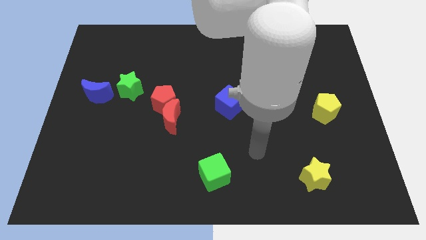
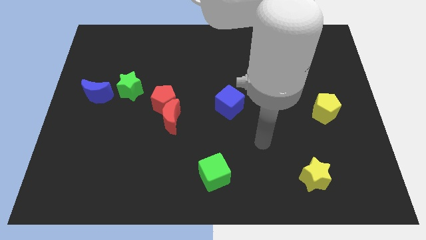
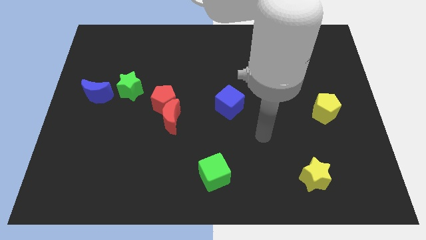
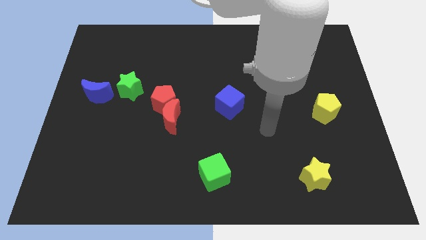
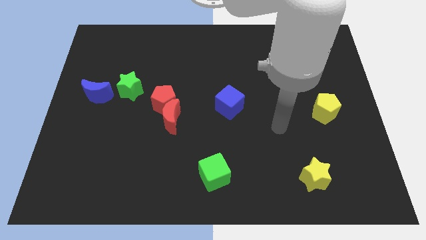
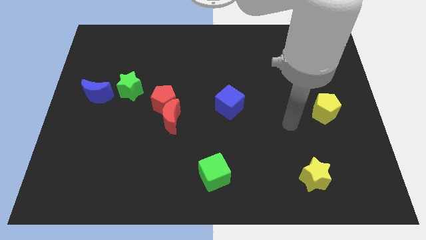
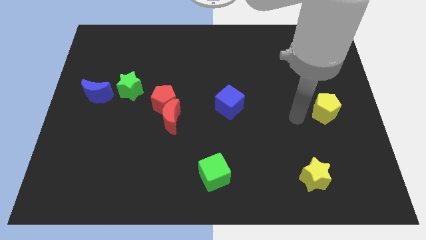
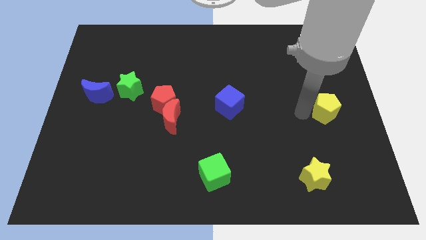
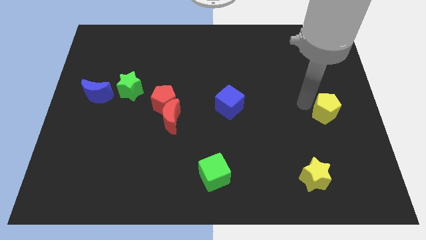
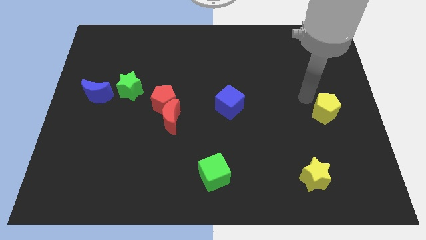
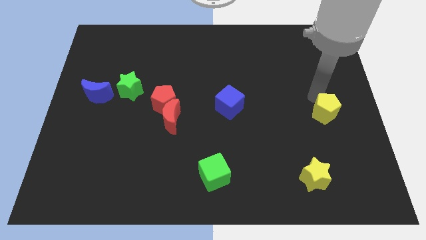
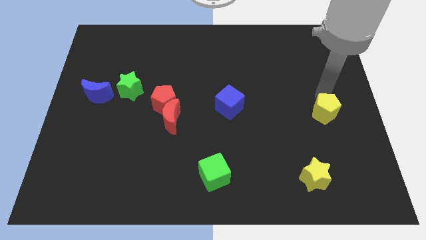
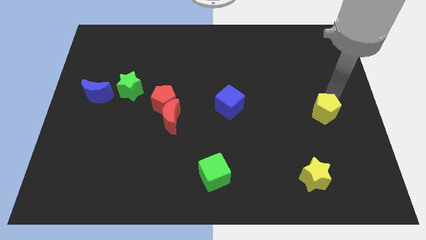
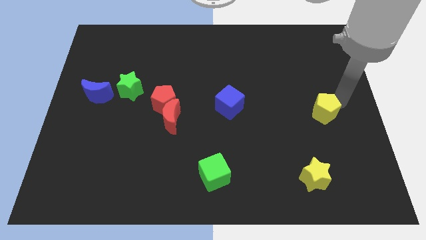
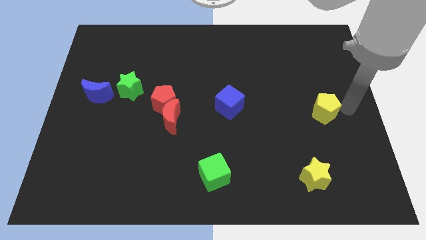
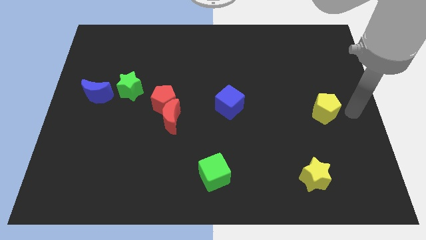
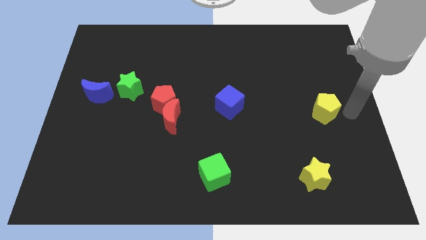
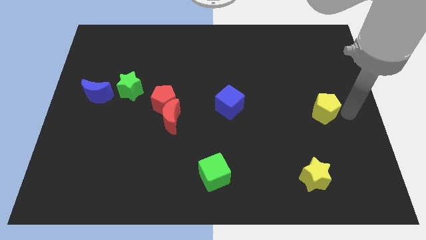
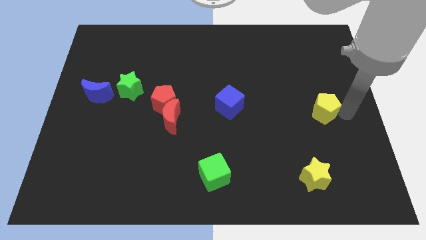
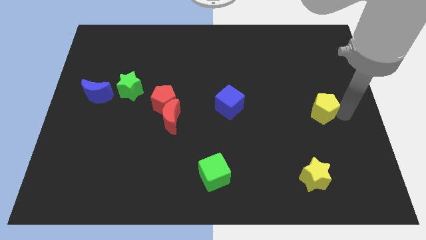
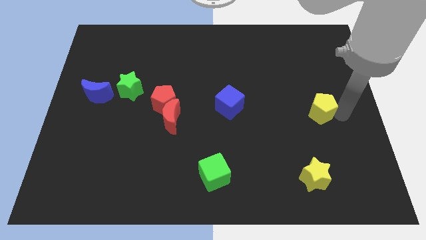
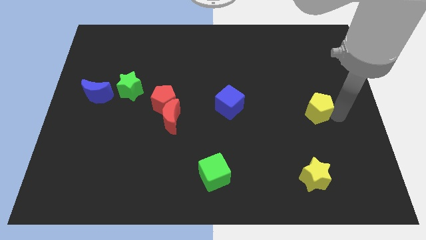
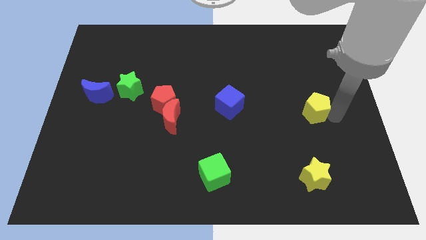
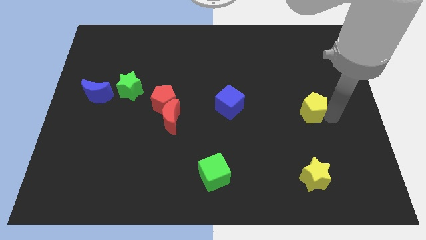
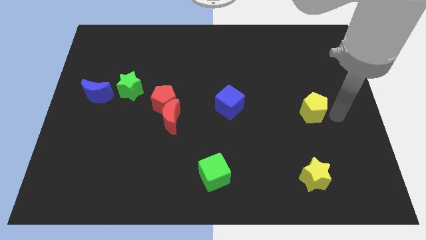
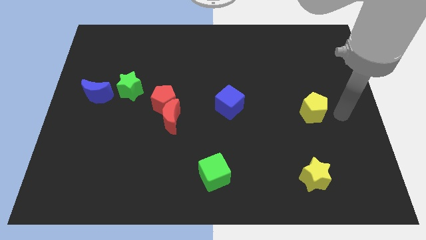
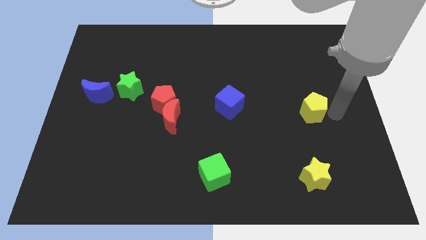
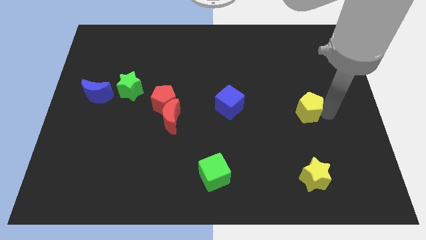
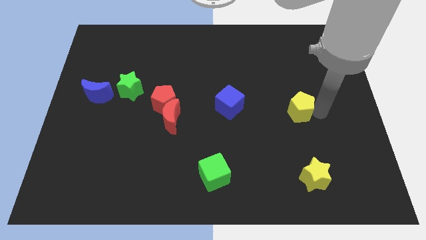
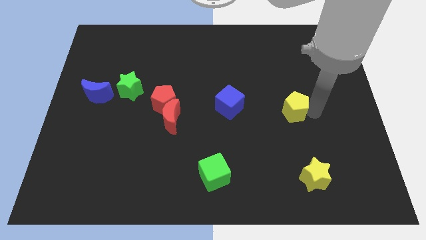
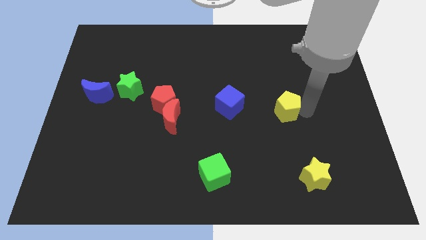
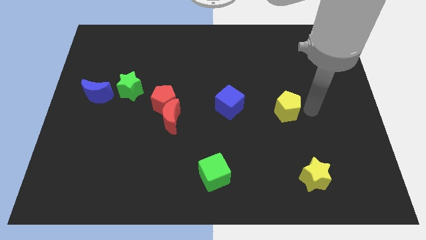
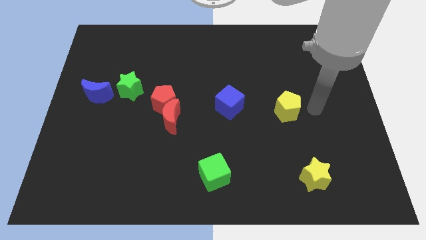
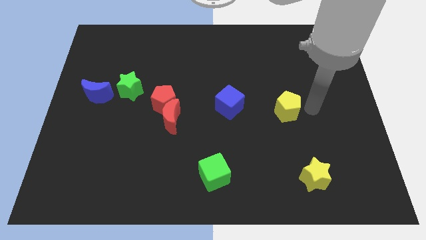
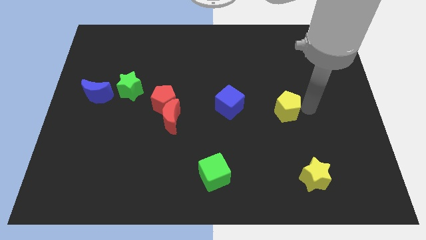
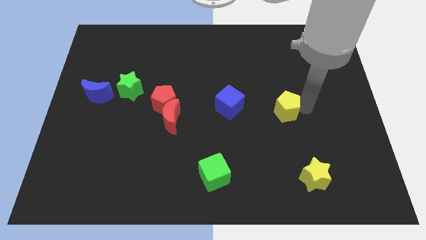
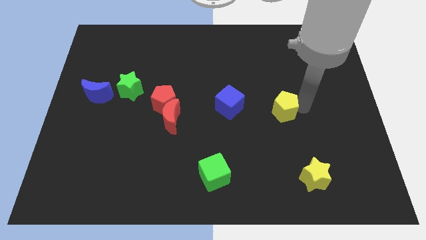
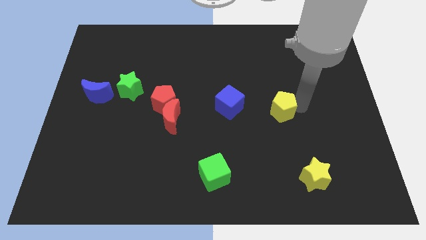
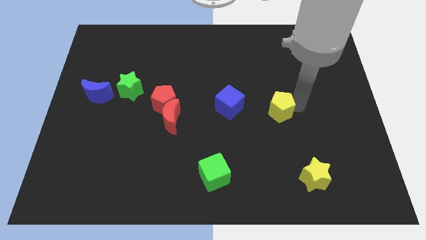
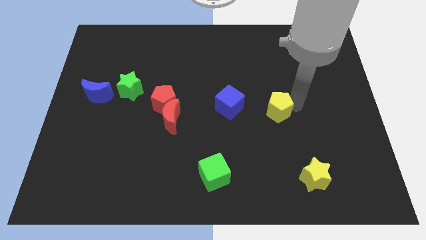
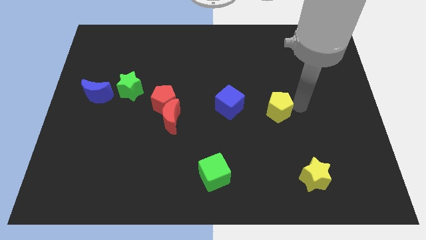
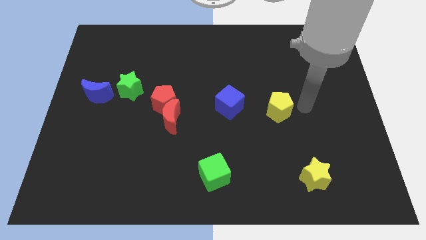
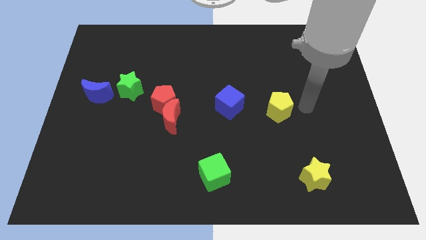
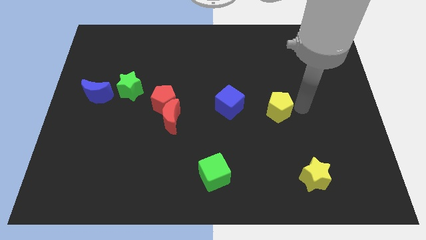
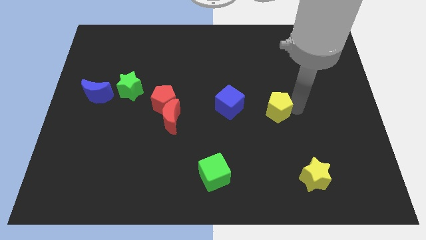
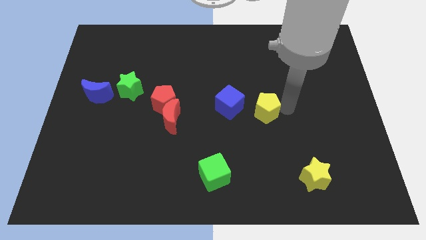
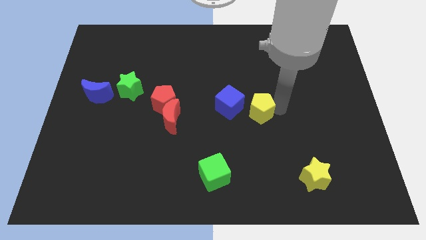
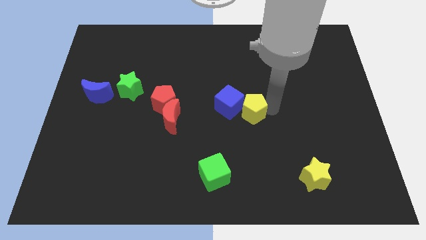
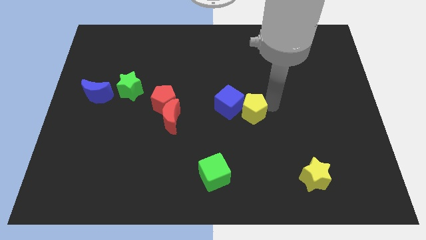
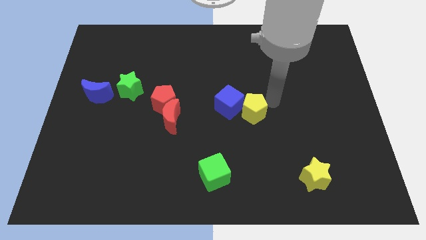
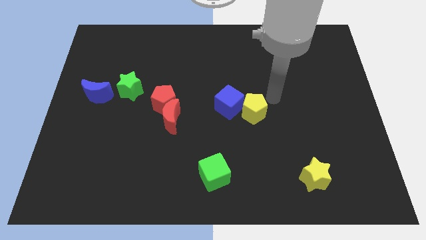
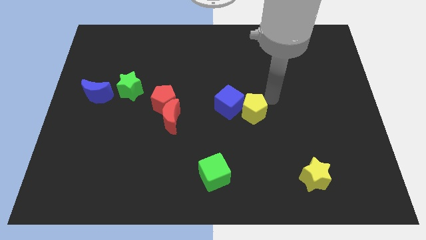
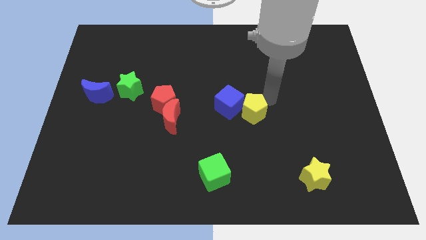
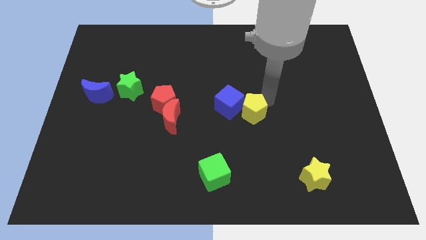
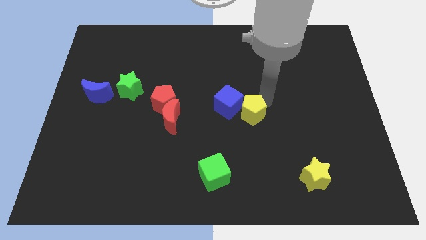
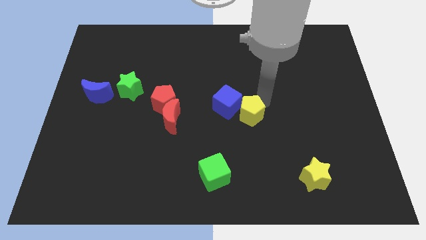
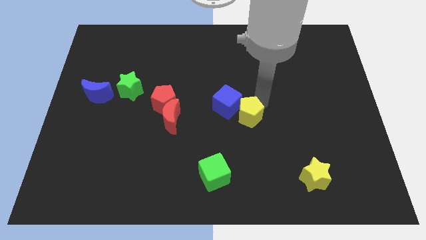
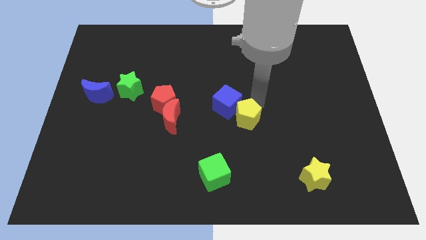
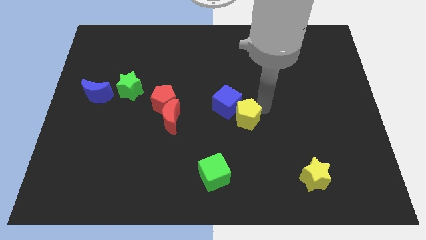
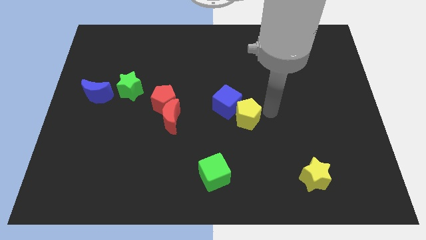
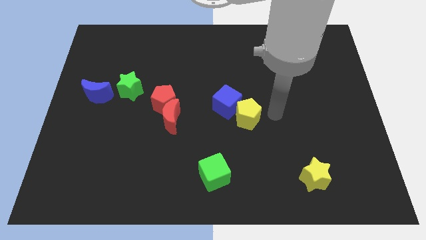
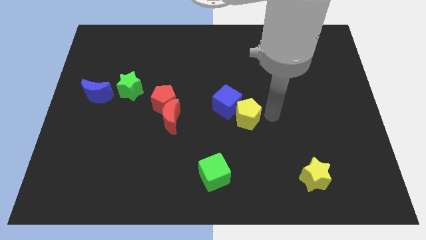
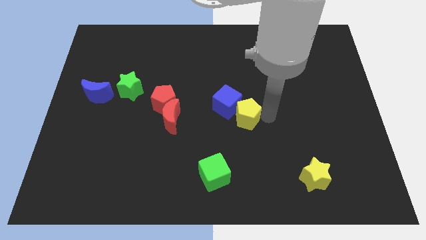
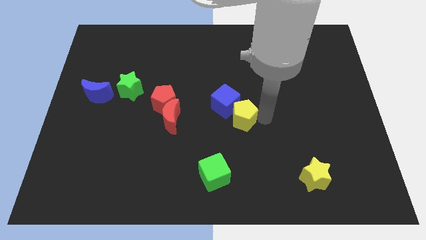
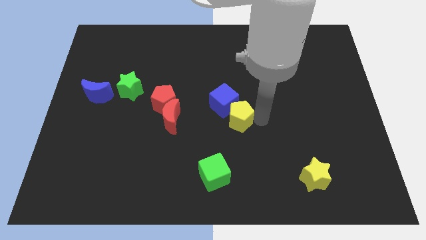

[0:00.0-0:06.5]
push the yellow pentagon left

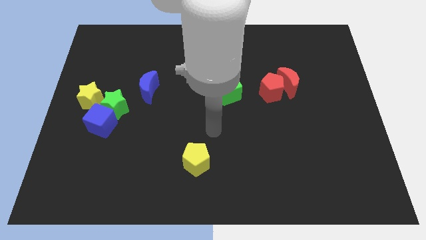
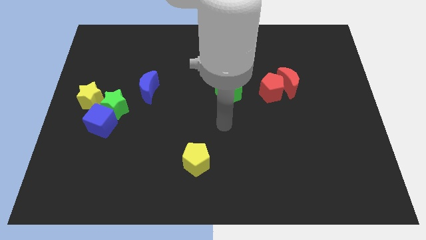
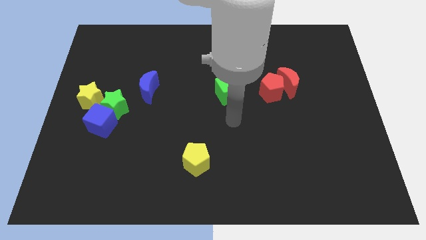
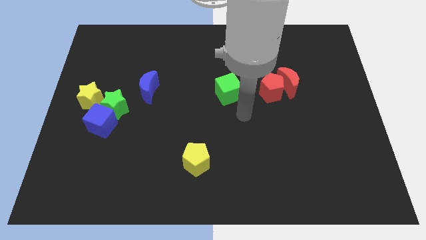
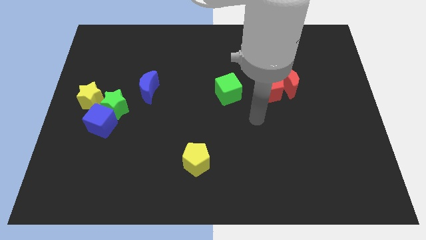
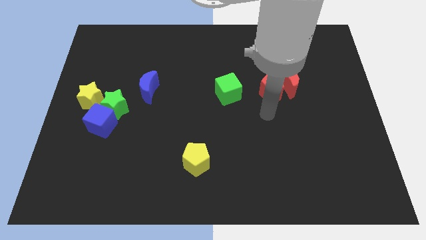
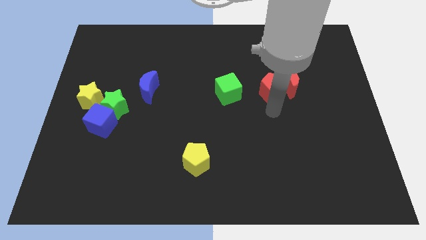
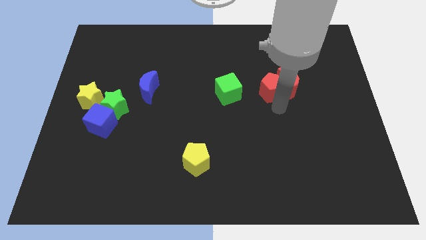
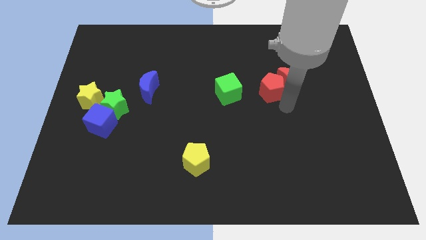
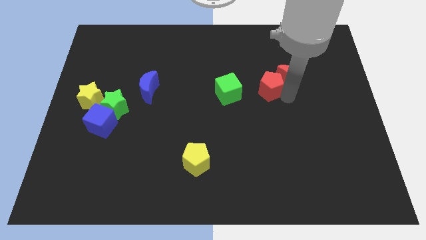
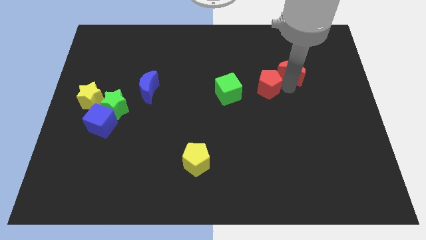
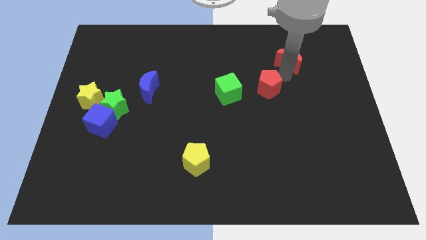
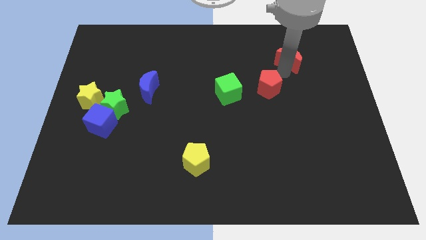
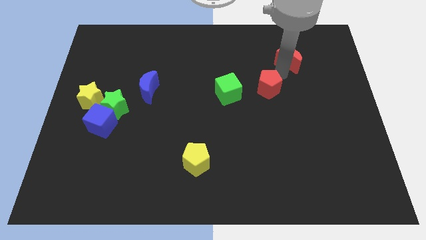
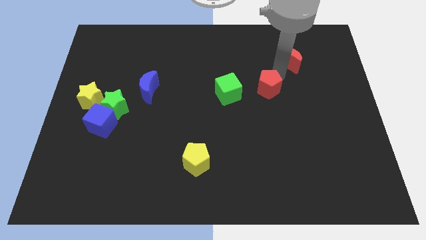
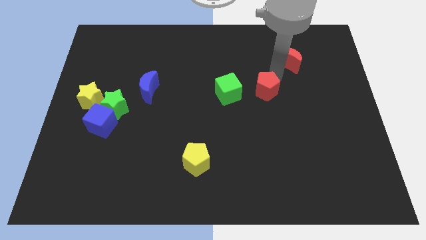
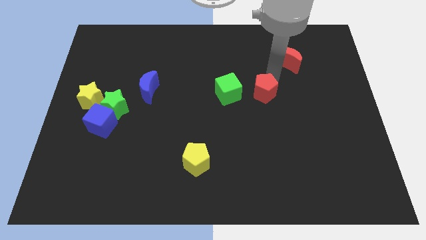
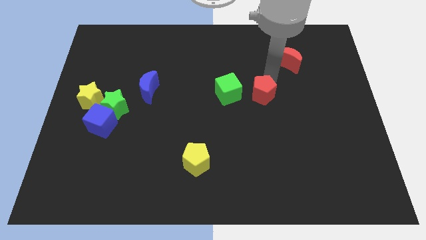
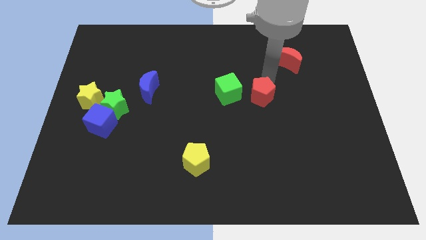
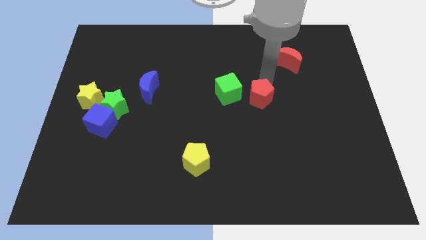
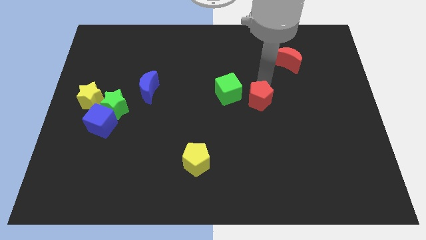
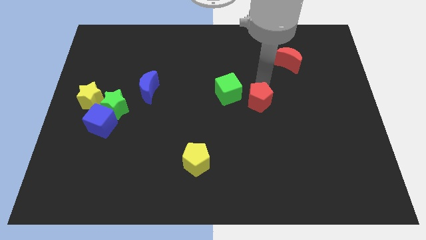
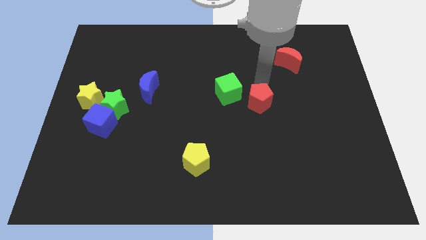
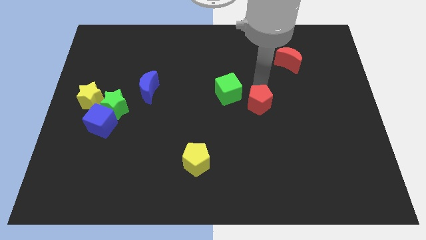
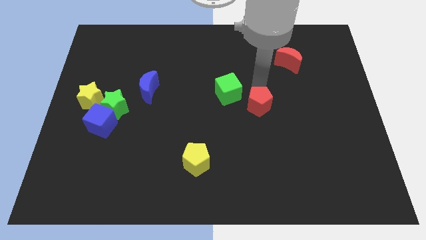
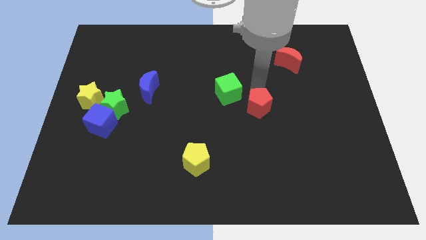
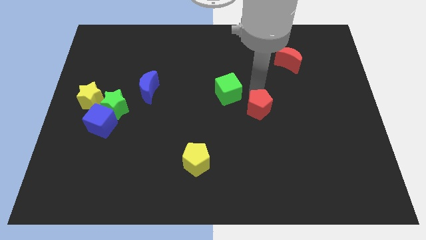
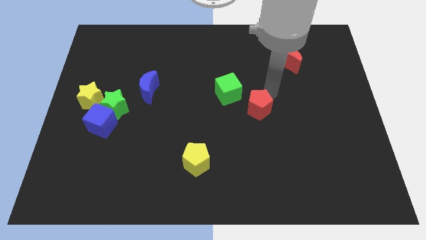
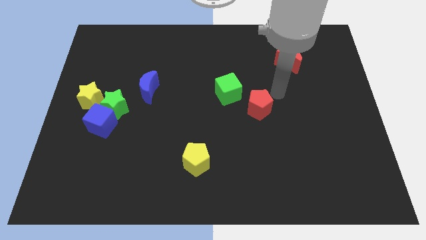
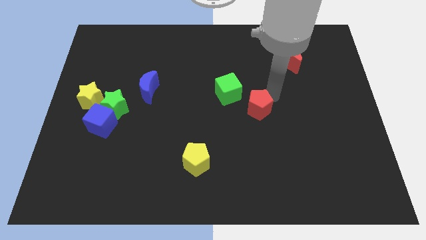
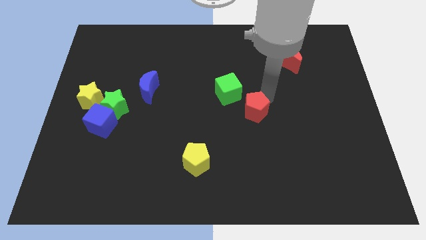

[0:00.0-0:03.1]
slightly slide the red pentagon down and then left
